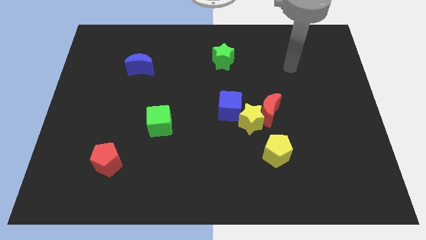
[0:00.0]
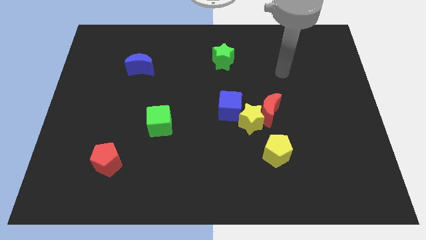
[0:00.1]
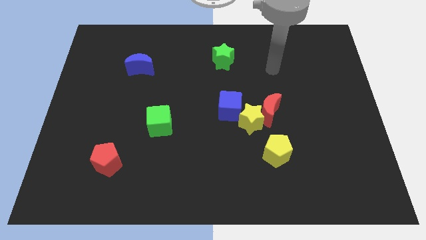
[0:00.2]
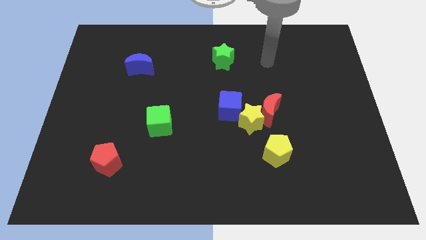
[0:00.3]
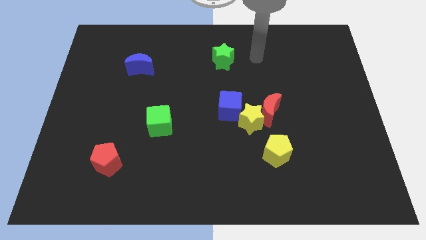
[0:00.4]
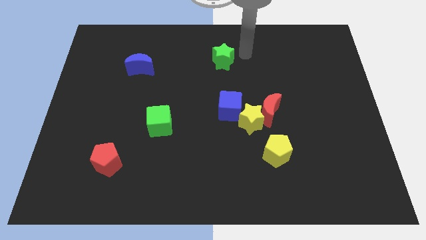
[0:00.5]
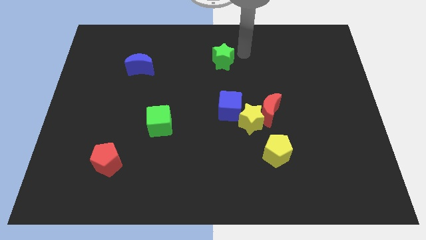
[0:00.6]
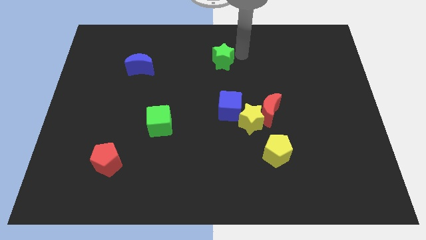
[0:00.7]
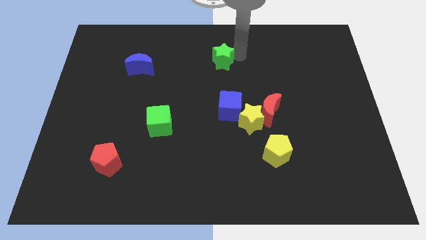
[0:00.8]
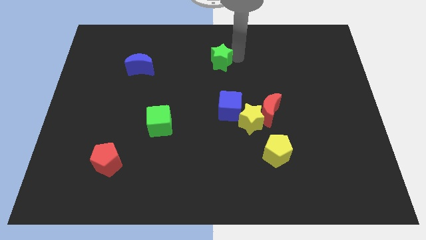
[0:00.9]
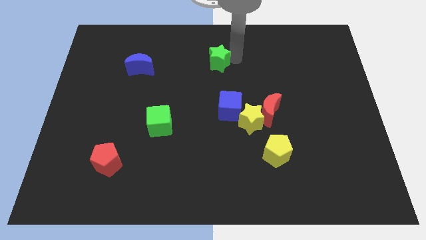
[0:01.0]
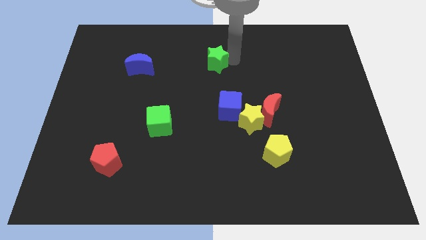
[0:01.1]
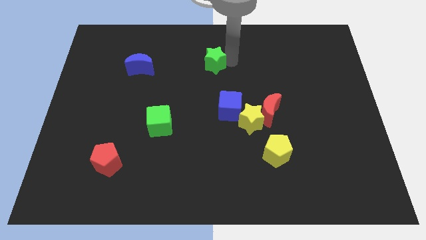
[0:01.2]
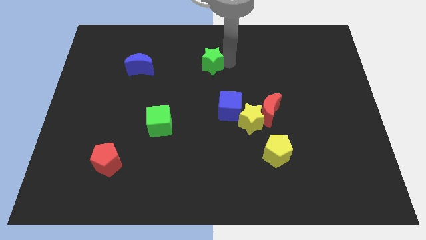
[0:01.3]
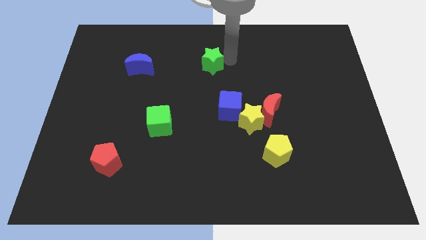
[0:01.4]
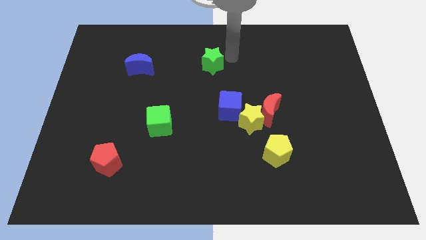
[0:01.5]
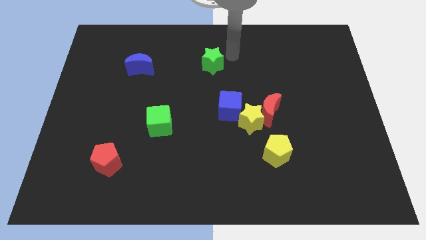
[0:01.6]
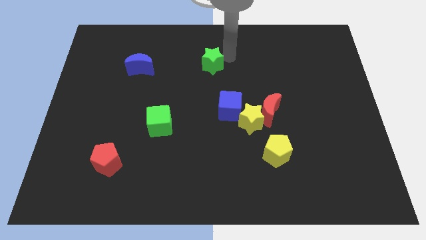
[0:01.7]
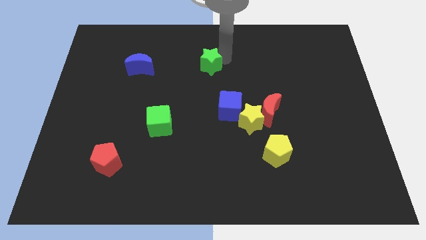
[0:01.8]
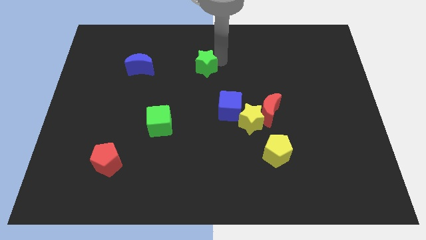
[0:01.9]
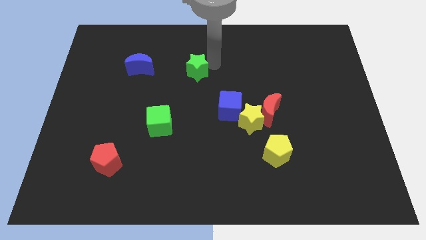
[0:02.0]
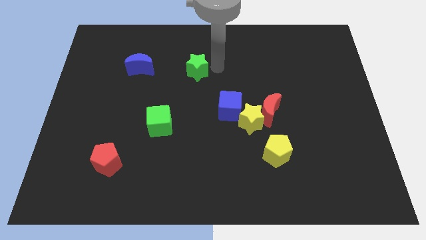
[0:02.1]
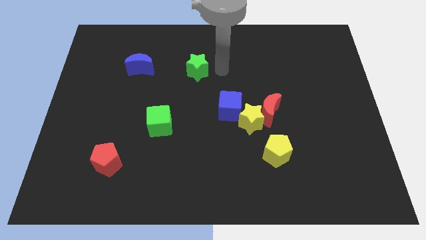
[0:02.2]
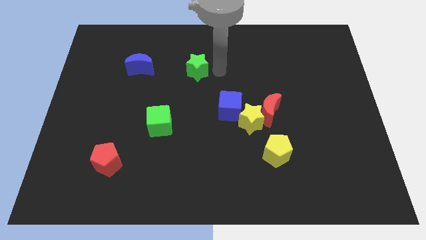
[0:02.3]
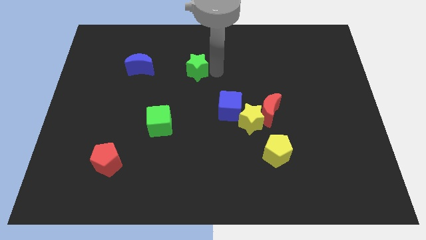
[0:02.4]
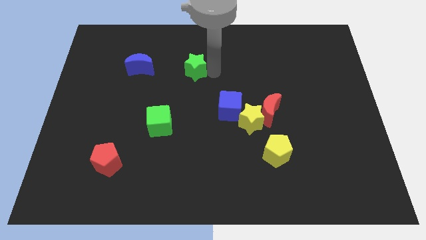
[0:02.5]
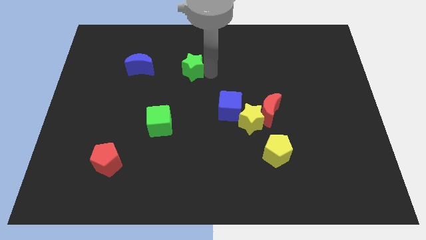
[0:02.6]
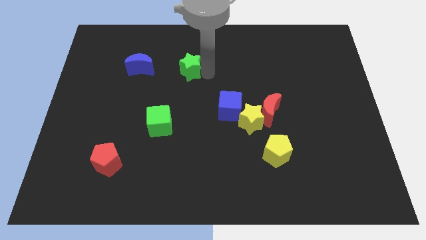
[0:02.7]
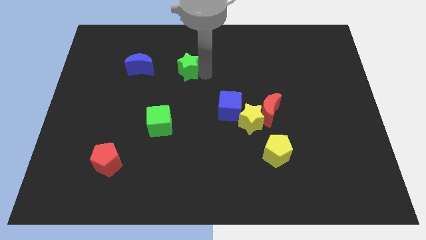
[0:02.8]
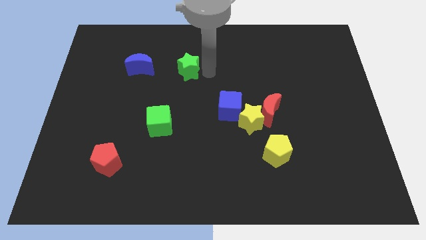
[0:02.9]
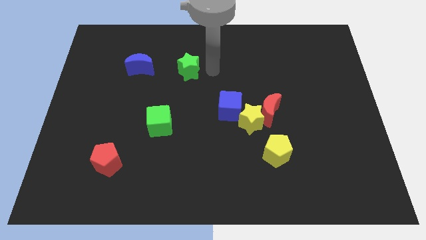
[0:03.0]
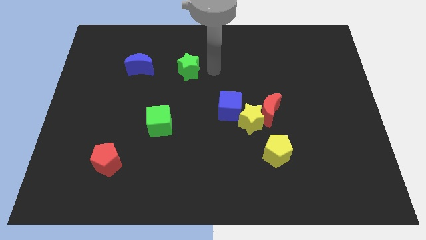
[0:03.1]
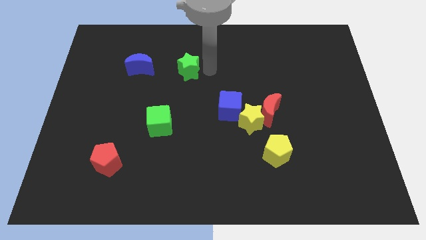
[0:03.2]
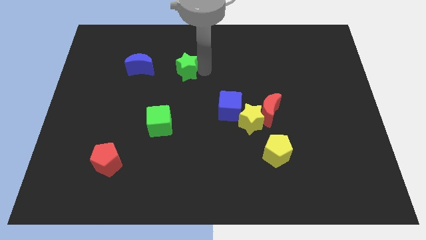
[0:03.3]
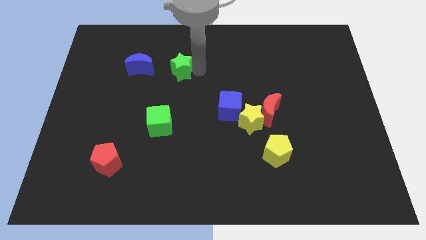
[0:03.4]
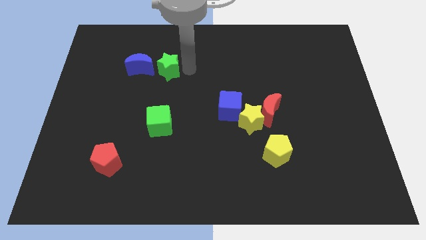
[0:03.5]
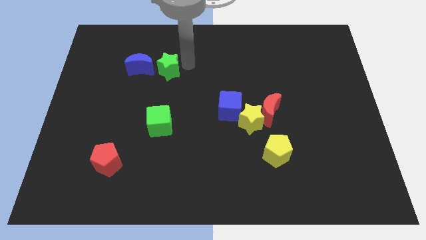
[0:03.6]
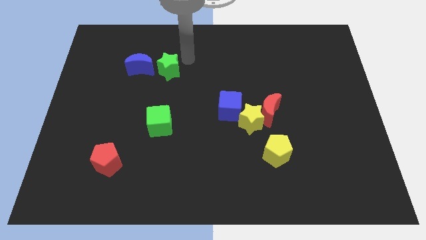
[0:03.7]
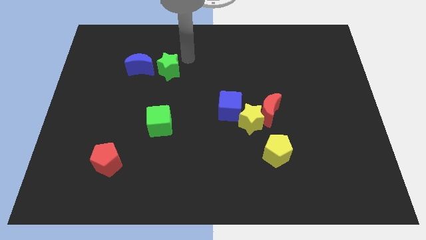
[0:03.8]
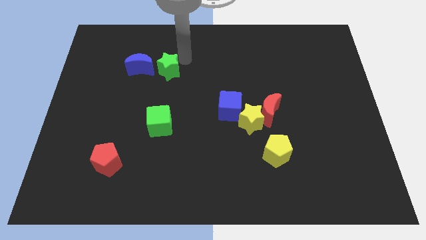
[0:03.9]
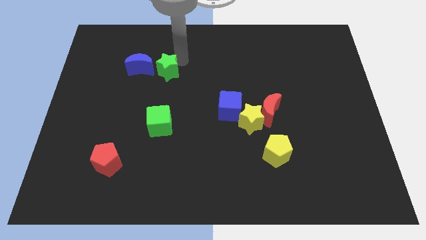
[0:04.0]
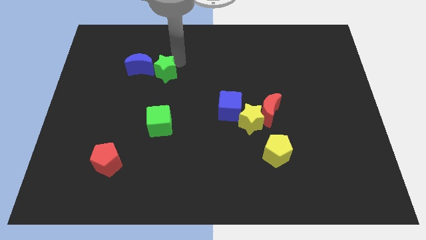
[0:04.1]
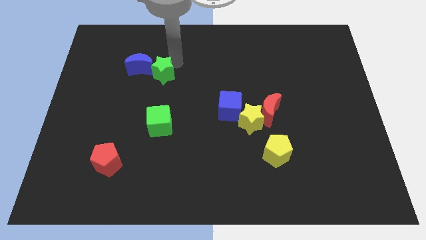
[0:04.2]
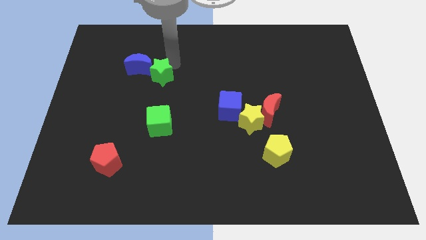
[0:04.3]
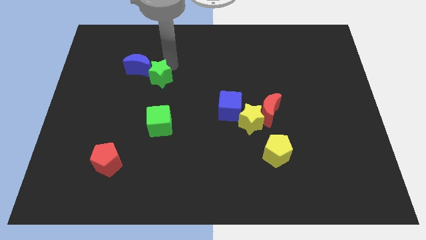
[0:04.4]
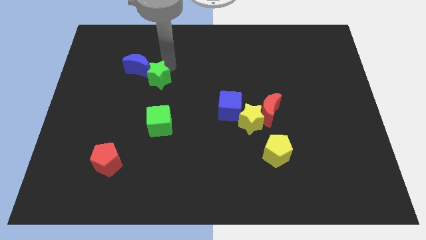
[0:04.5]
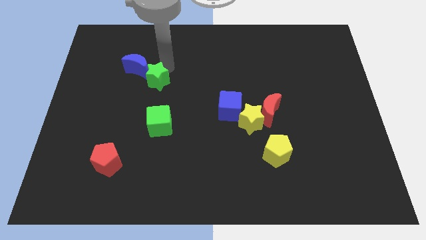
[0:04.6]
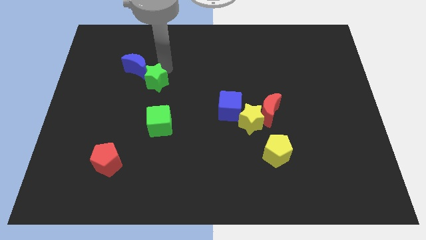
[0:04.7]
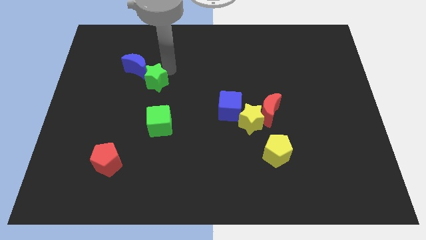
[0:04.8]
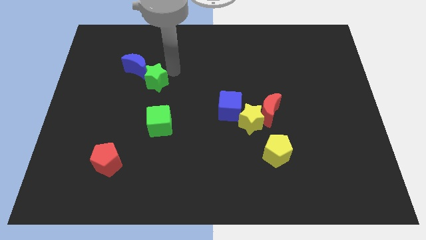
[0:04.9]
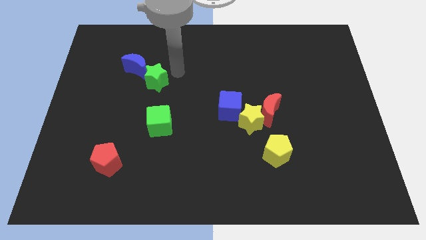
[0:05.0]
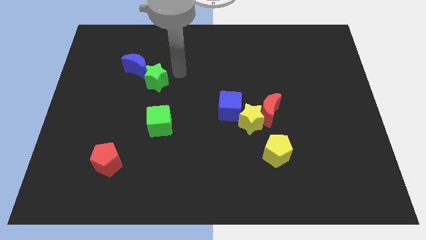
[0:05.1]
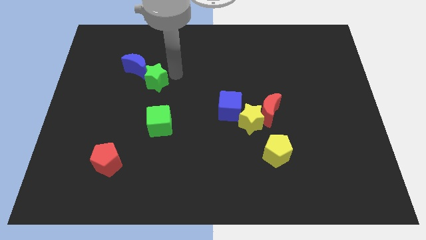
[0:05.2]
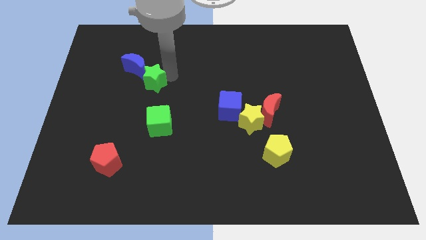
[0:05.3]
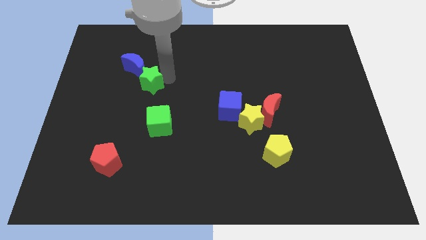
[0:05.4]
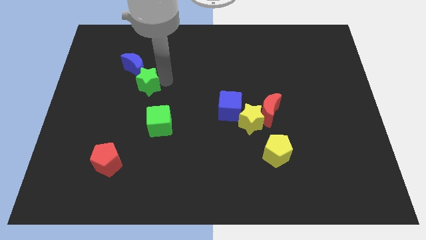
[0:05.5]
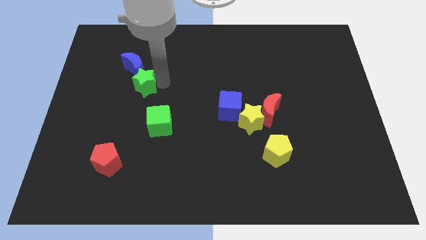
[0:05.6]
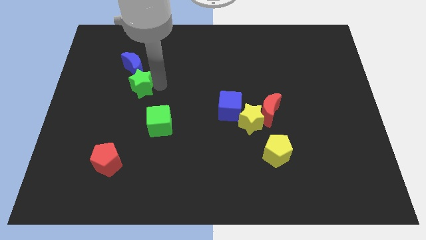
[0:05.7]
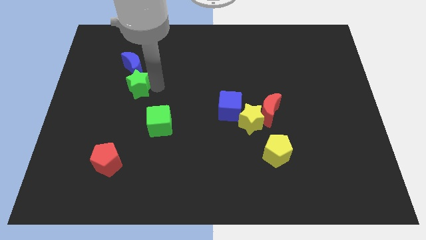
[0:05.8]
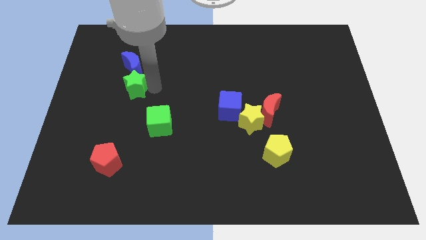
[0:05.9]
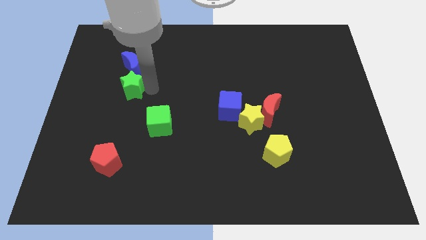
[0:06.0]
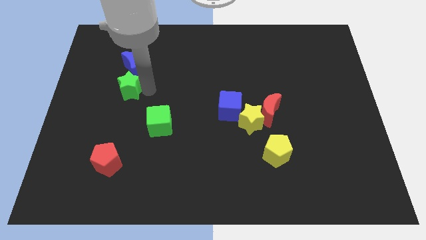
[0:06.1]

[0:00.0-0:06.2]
push the green star to the bottom left side of the blue moon

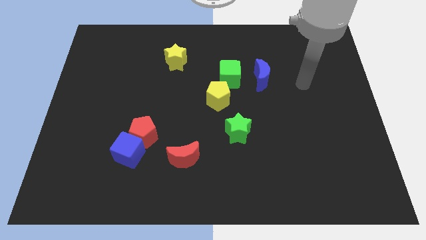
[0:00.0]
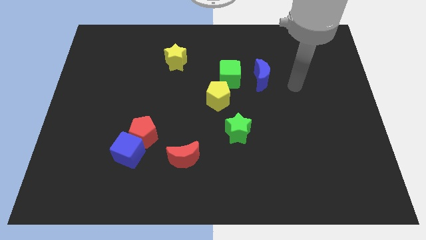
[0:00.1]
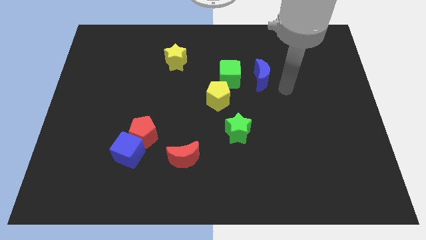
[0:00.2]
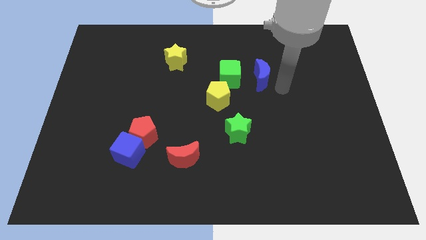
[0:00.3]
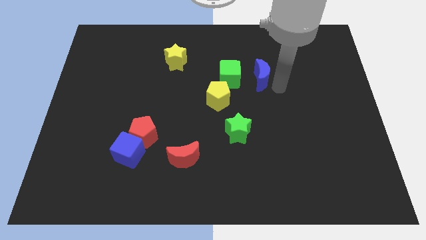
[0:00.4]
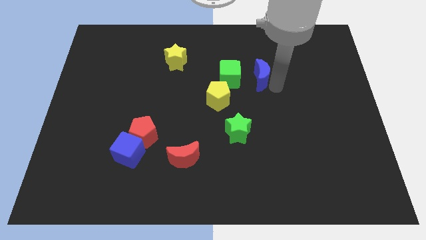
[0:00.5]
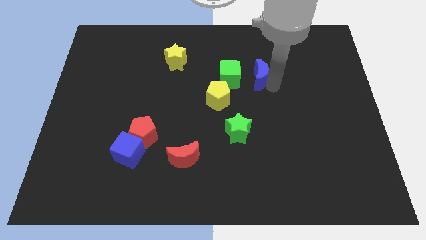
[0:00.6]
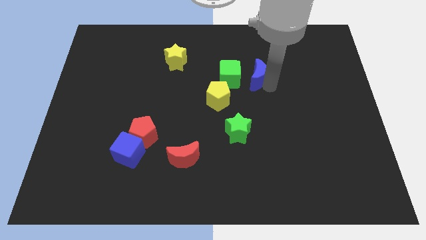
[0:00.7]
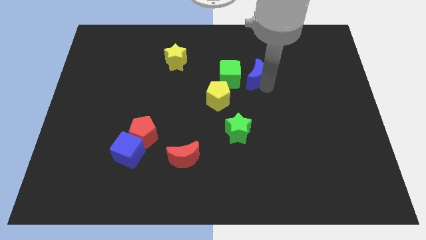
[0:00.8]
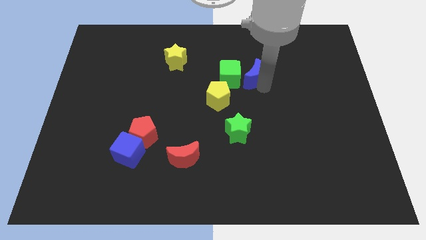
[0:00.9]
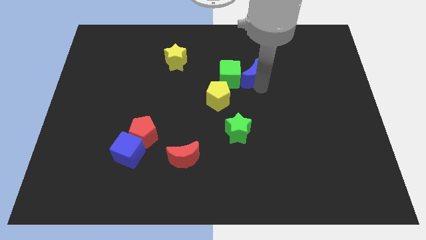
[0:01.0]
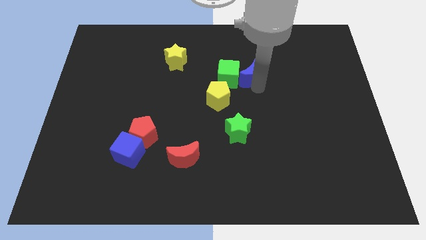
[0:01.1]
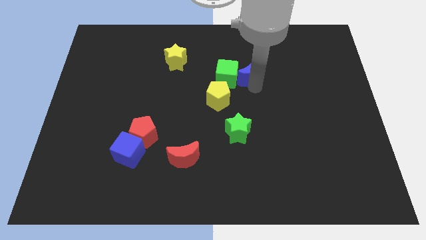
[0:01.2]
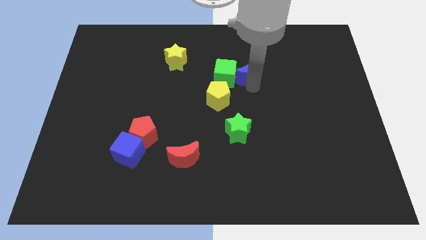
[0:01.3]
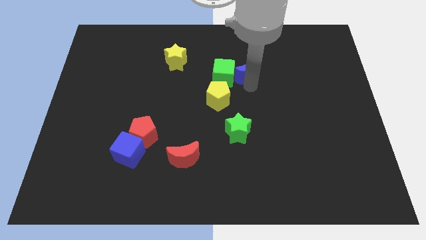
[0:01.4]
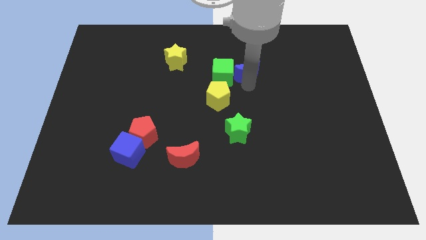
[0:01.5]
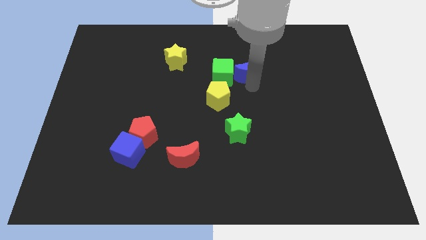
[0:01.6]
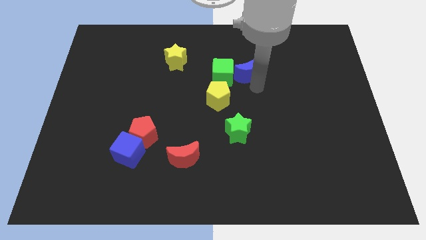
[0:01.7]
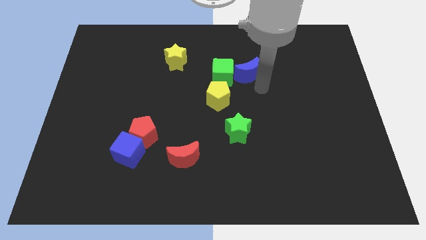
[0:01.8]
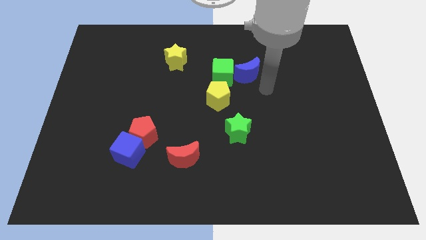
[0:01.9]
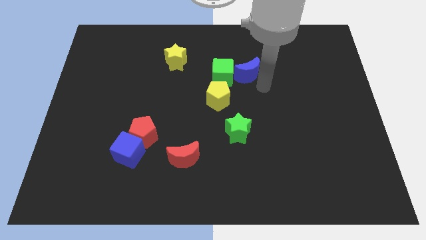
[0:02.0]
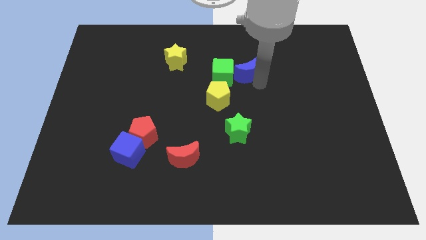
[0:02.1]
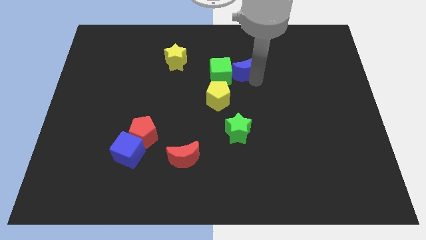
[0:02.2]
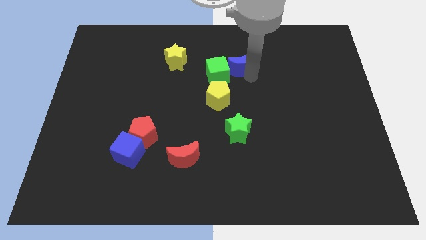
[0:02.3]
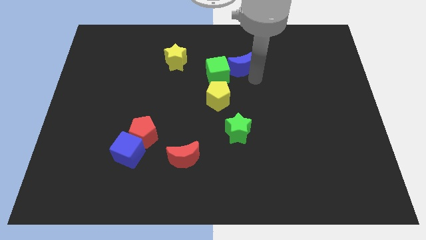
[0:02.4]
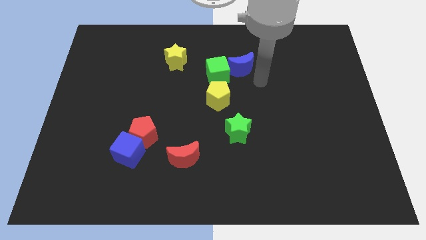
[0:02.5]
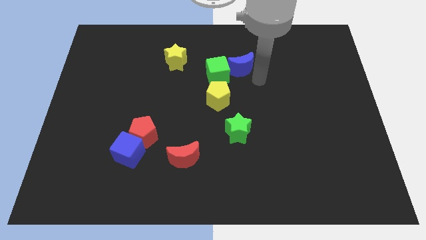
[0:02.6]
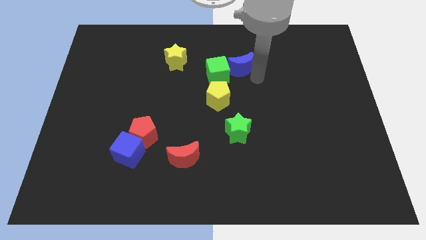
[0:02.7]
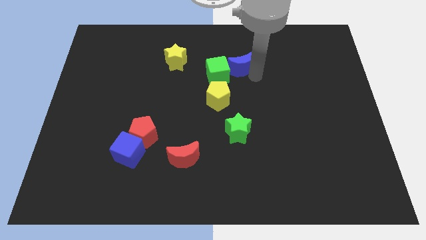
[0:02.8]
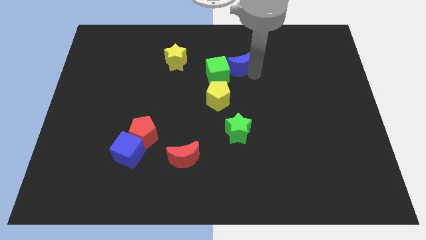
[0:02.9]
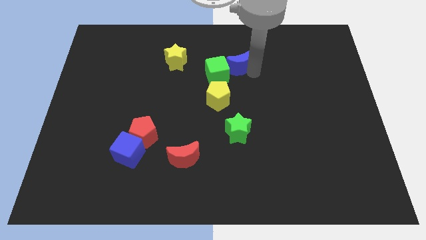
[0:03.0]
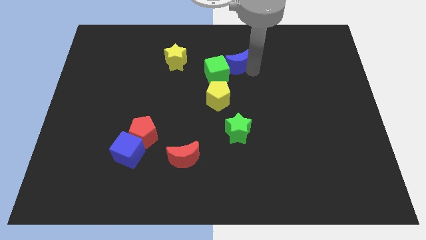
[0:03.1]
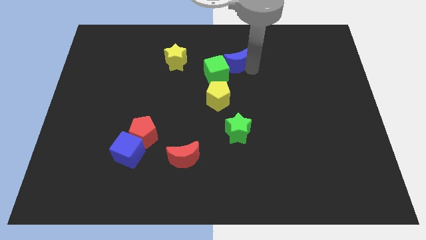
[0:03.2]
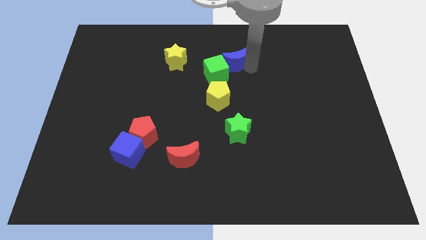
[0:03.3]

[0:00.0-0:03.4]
slide the blue moon to the top of the yellow pentagon
